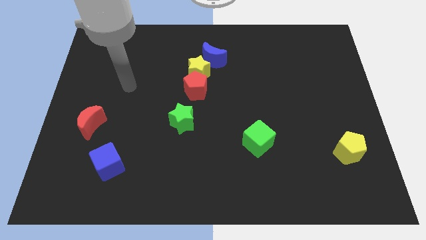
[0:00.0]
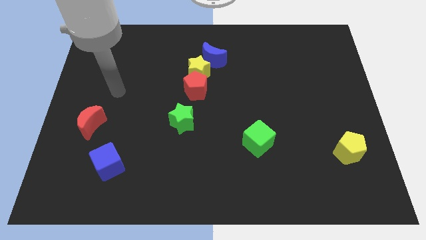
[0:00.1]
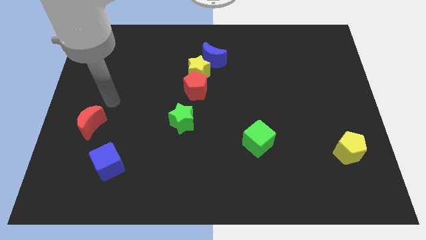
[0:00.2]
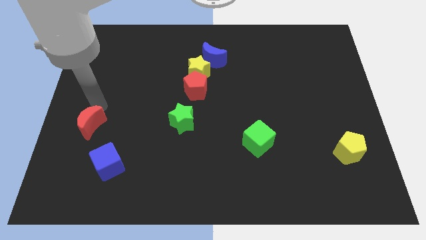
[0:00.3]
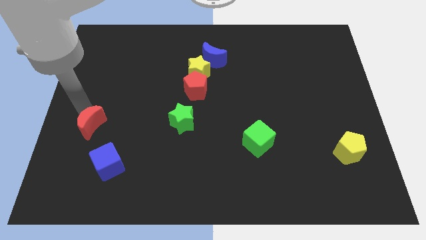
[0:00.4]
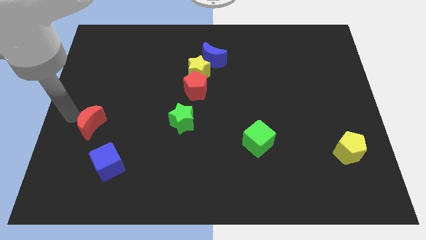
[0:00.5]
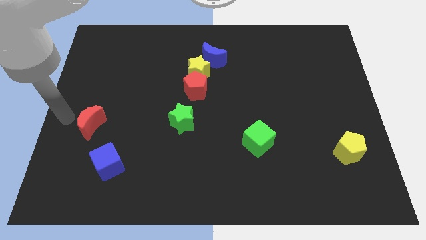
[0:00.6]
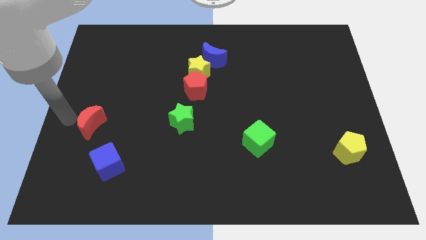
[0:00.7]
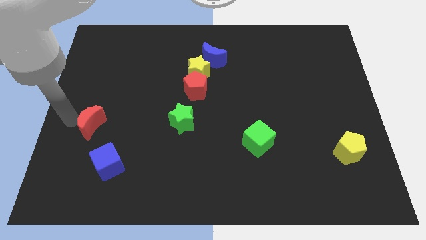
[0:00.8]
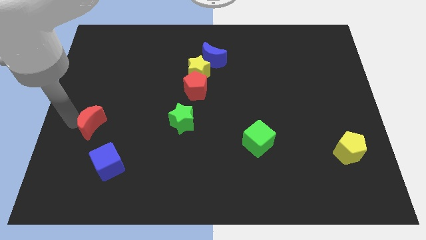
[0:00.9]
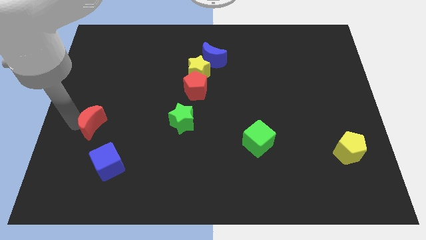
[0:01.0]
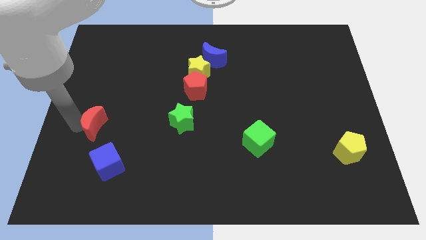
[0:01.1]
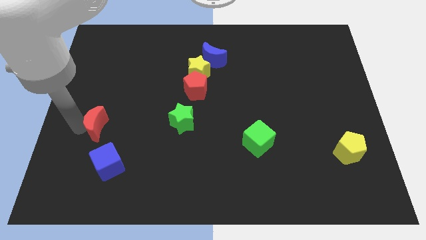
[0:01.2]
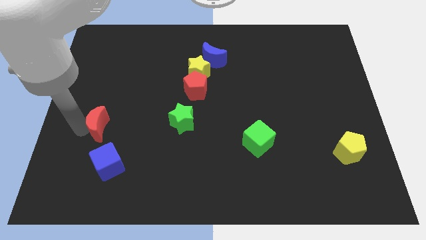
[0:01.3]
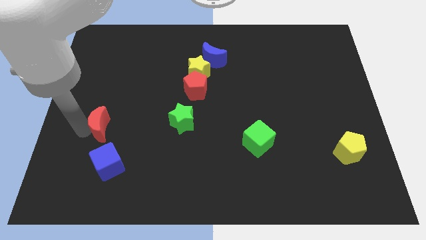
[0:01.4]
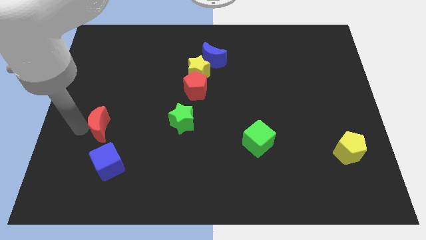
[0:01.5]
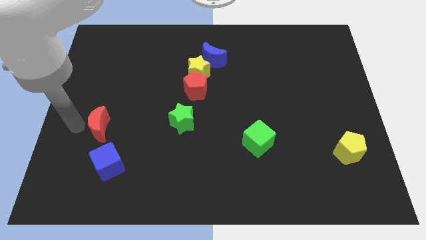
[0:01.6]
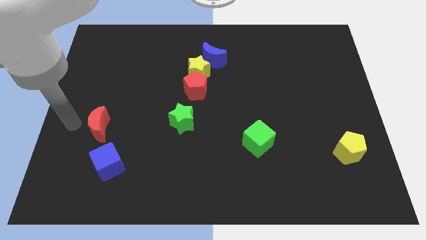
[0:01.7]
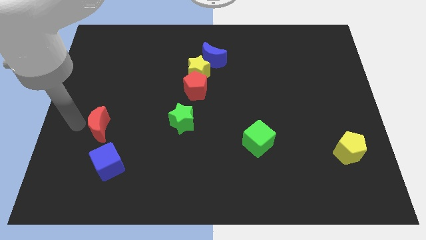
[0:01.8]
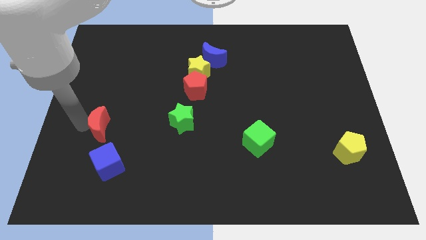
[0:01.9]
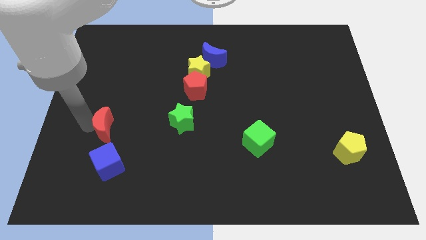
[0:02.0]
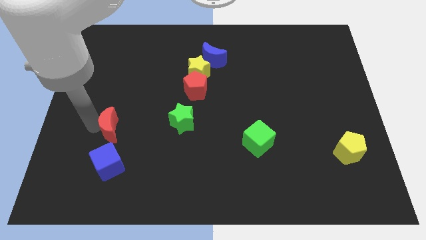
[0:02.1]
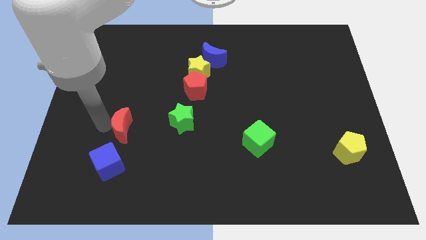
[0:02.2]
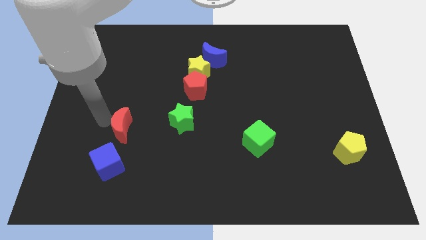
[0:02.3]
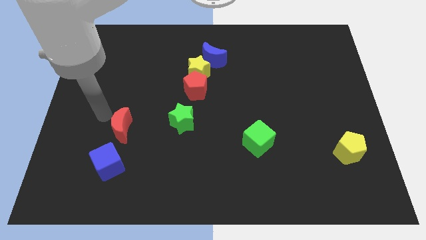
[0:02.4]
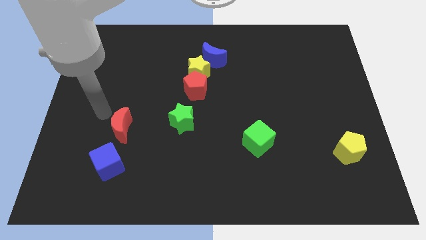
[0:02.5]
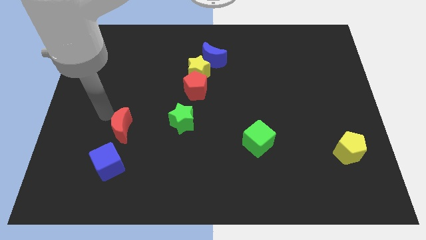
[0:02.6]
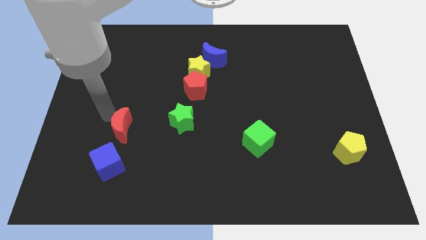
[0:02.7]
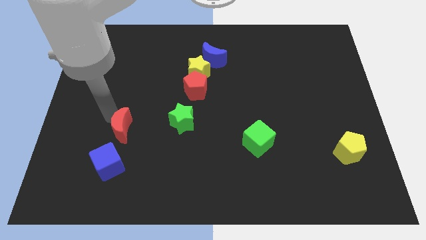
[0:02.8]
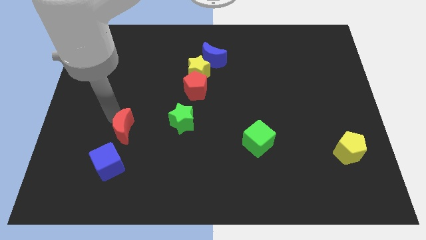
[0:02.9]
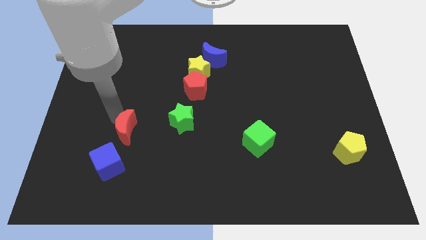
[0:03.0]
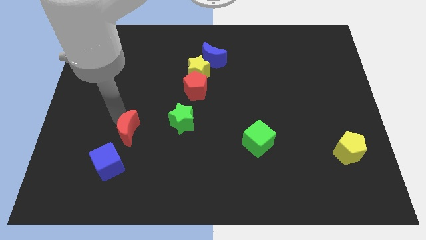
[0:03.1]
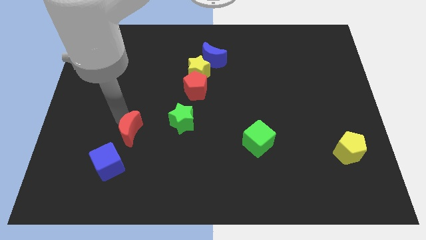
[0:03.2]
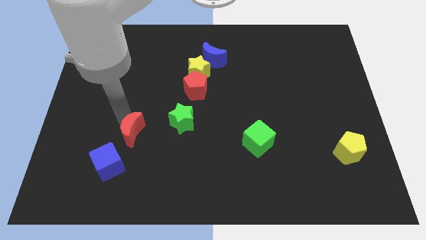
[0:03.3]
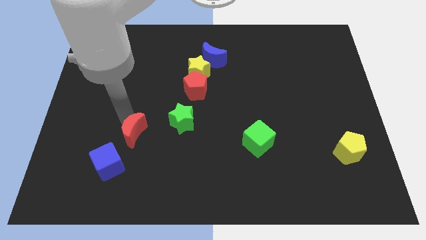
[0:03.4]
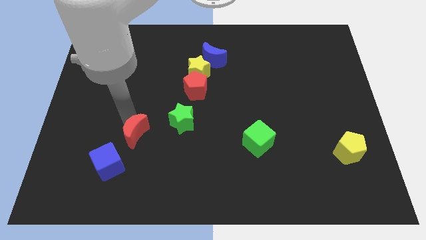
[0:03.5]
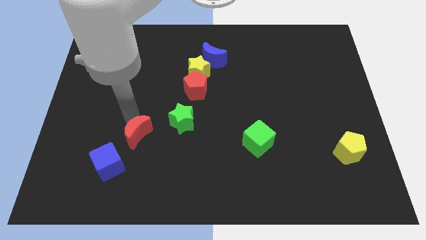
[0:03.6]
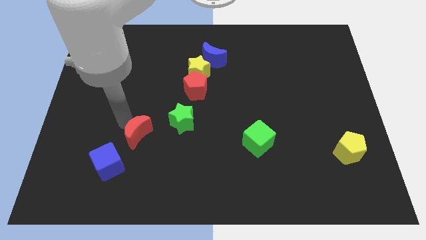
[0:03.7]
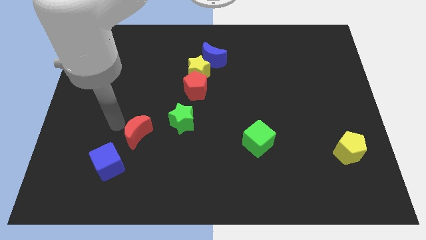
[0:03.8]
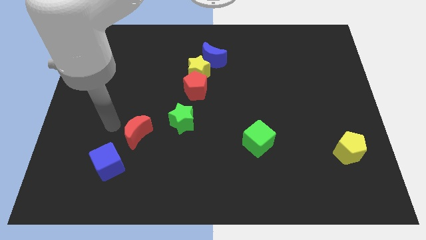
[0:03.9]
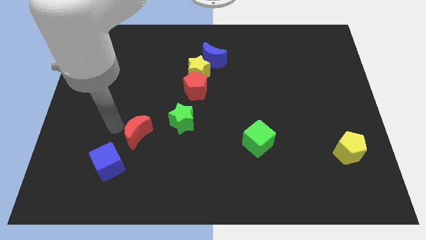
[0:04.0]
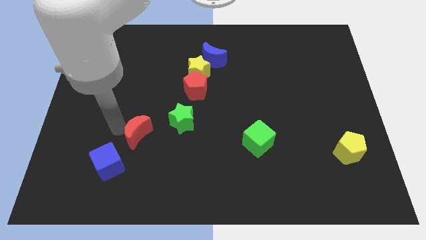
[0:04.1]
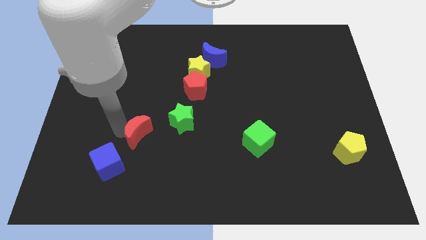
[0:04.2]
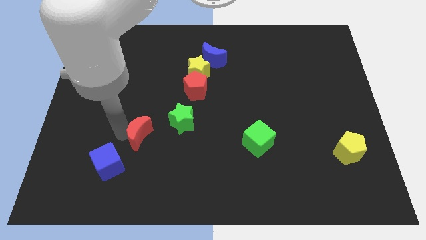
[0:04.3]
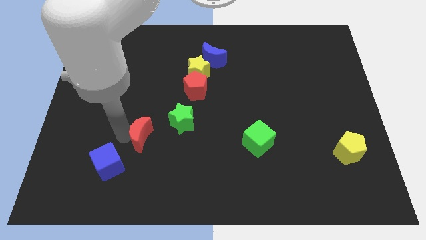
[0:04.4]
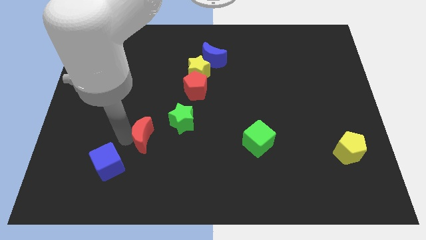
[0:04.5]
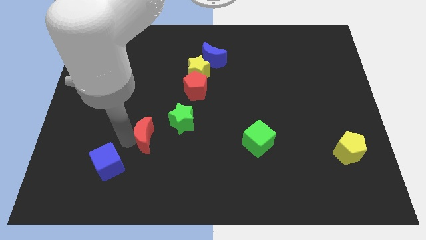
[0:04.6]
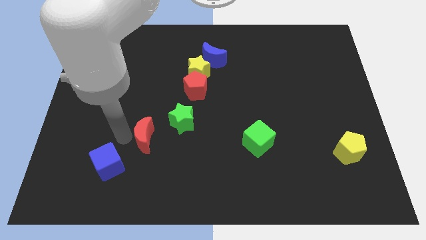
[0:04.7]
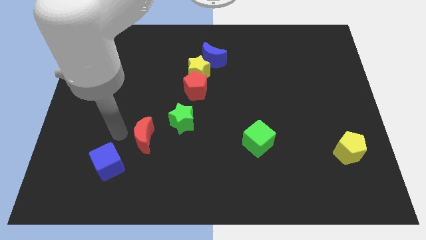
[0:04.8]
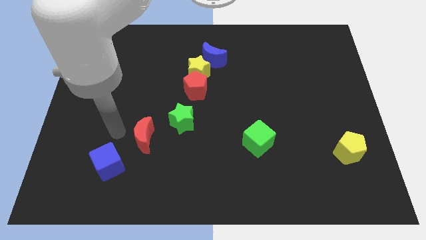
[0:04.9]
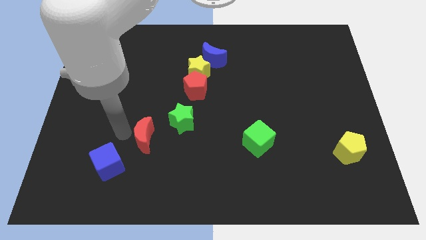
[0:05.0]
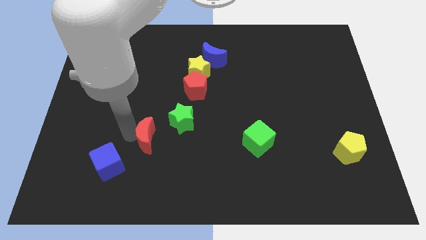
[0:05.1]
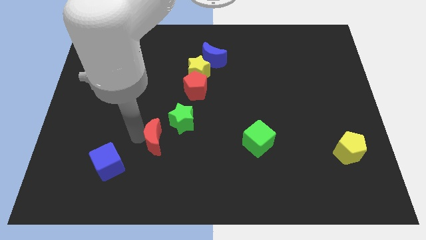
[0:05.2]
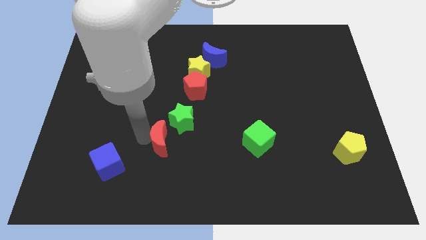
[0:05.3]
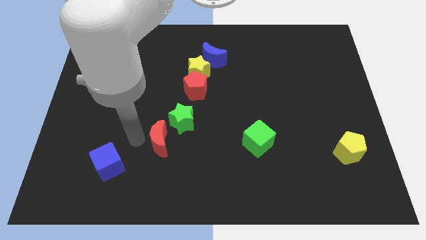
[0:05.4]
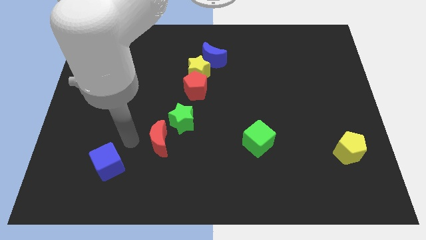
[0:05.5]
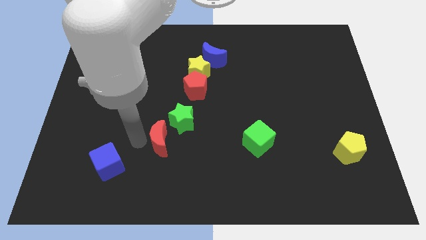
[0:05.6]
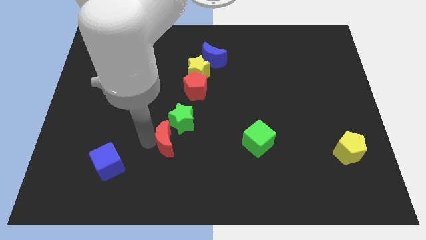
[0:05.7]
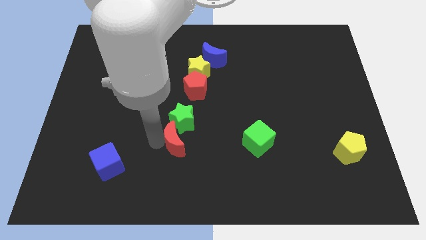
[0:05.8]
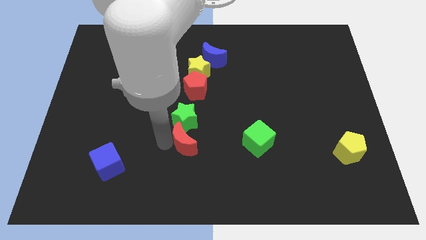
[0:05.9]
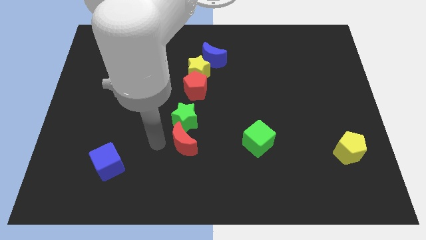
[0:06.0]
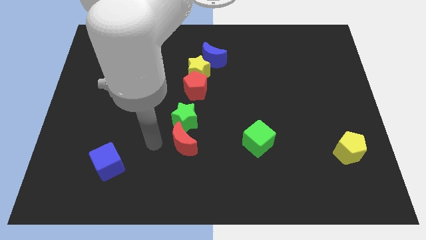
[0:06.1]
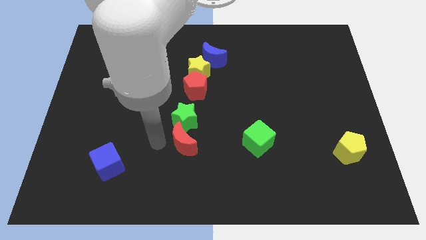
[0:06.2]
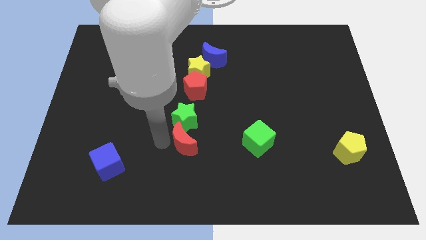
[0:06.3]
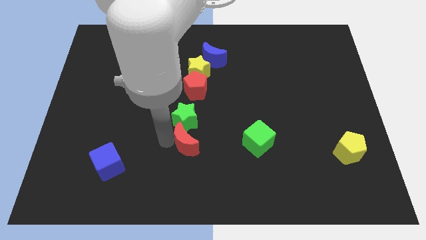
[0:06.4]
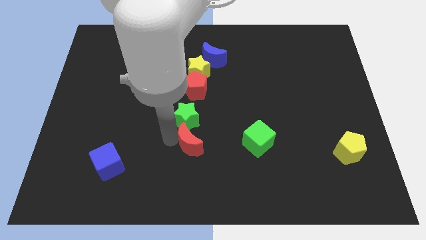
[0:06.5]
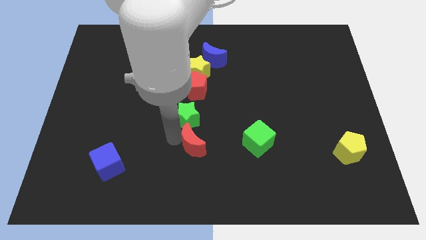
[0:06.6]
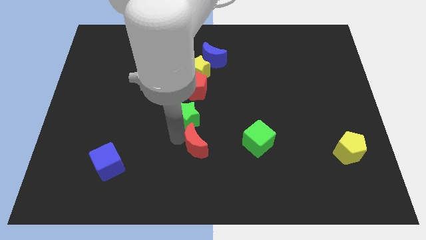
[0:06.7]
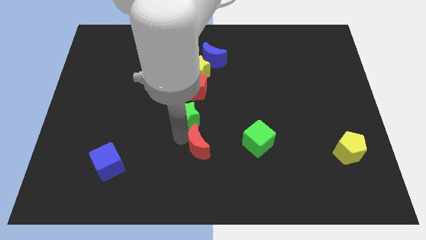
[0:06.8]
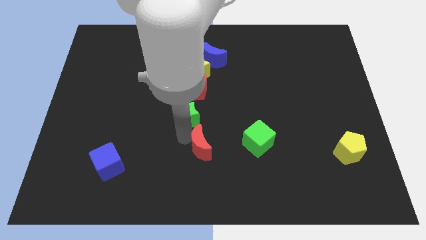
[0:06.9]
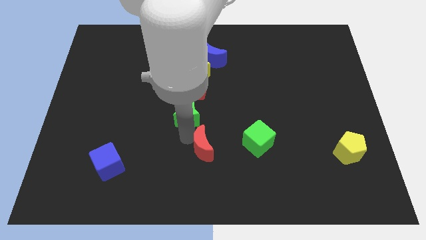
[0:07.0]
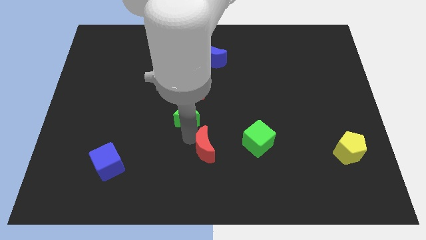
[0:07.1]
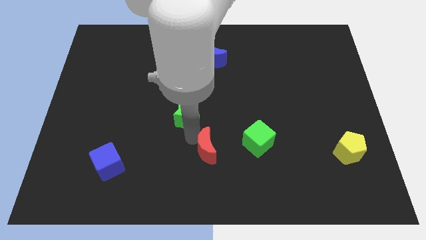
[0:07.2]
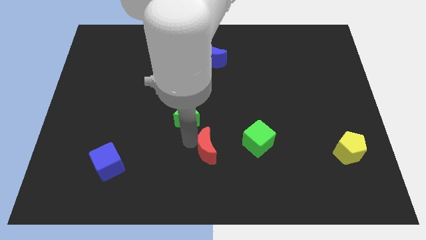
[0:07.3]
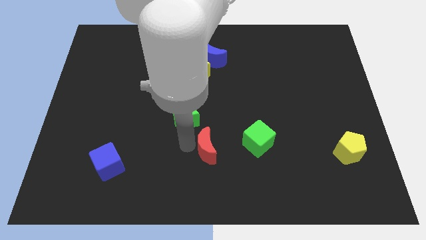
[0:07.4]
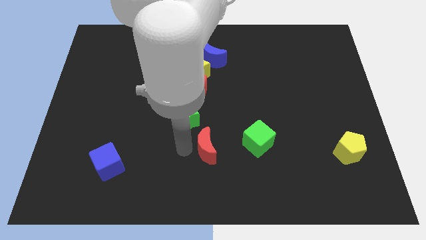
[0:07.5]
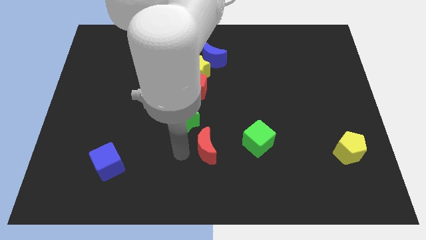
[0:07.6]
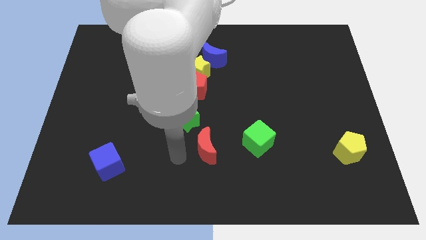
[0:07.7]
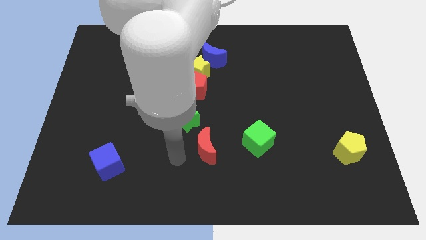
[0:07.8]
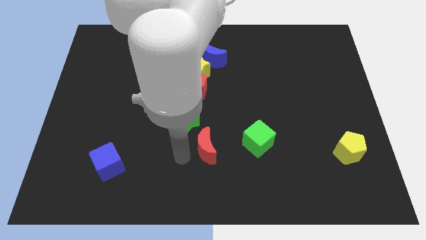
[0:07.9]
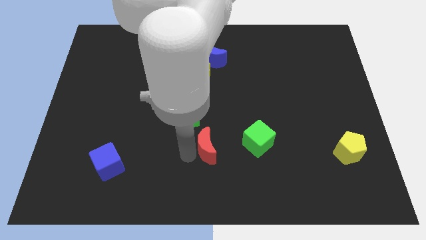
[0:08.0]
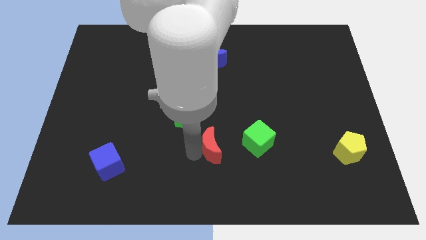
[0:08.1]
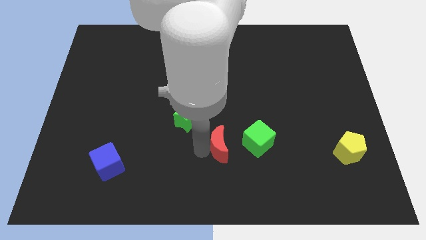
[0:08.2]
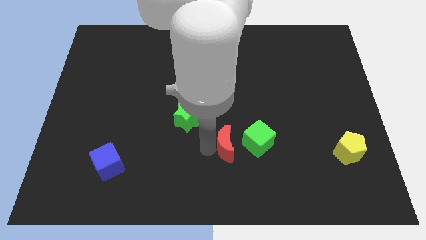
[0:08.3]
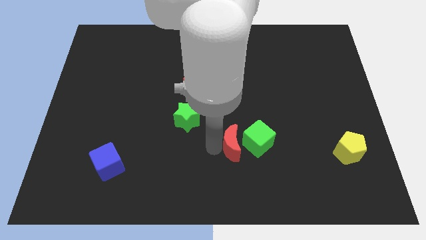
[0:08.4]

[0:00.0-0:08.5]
move the red moon next to the green cube
